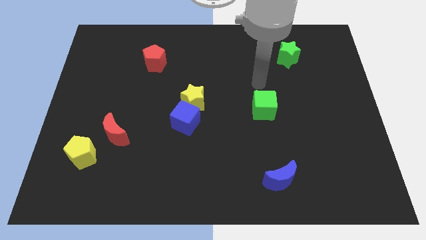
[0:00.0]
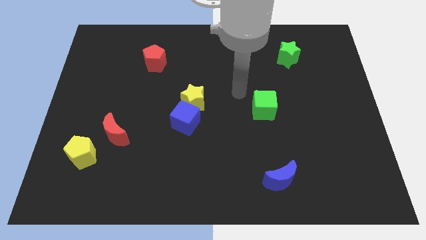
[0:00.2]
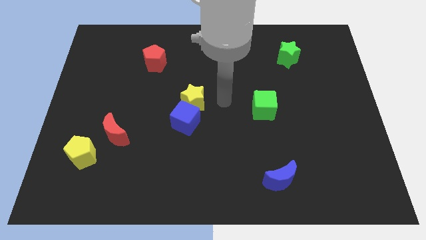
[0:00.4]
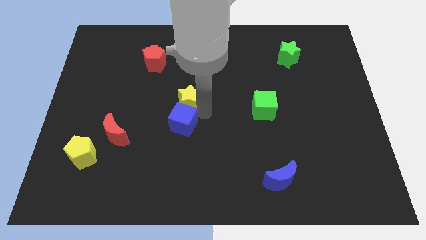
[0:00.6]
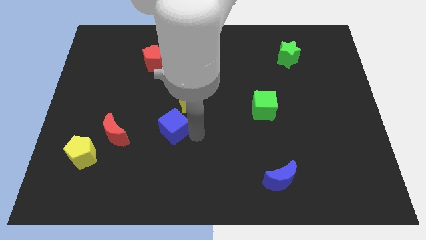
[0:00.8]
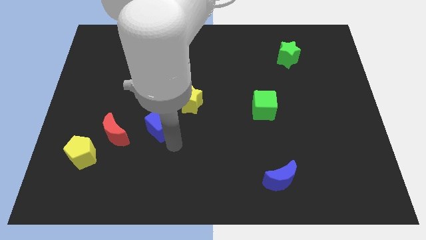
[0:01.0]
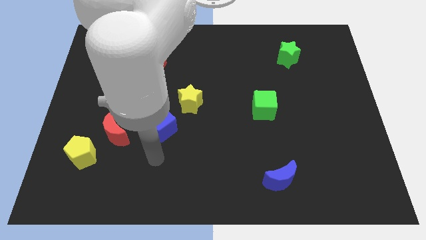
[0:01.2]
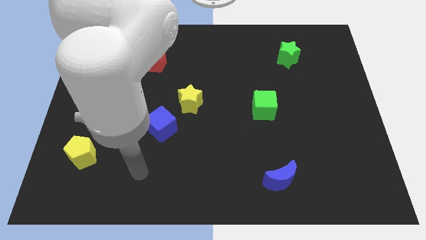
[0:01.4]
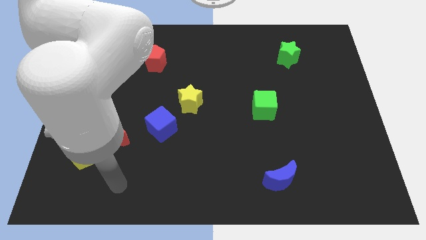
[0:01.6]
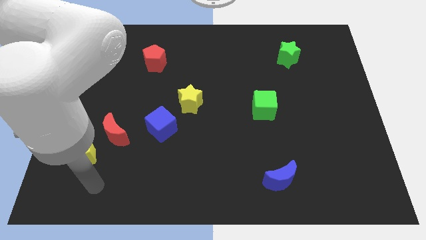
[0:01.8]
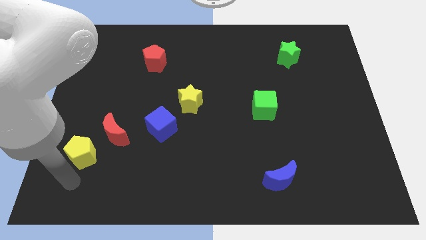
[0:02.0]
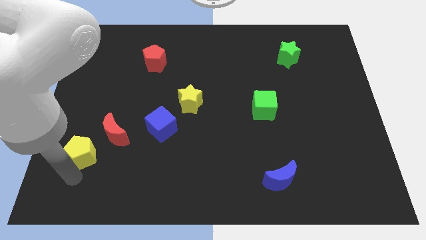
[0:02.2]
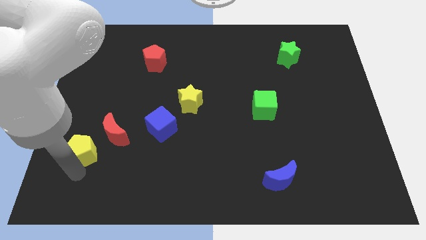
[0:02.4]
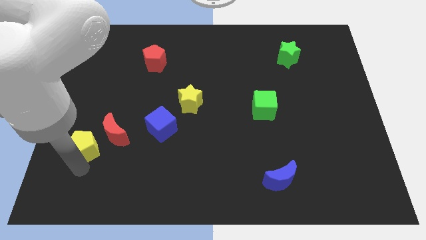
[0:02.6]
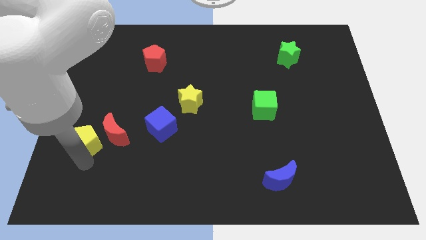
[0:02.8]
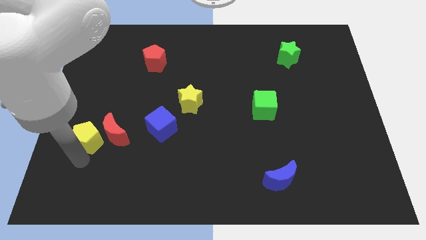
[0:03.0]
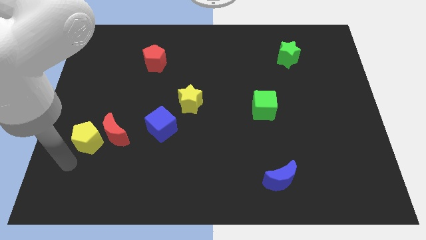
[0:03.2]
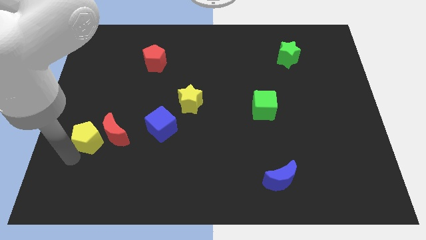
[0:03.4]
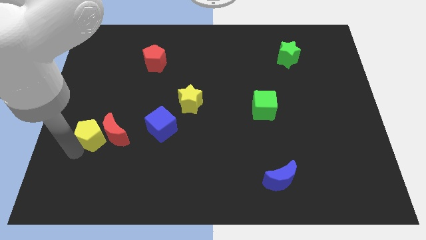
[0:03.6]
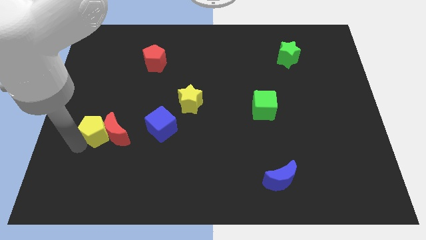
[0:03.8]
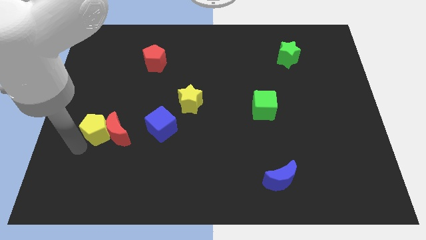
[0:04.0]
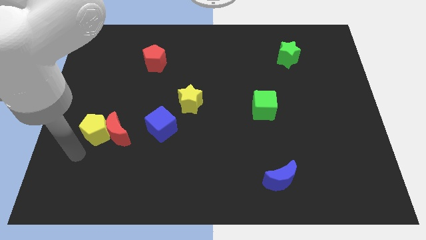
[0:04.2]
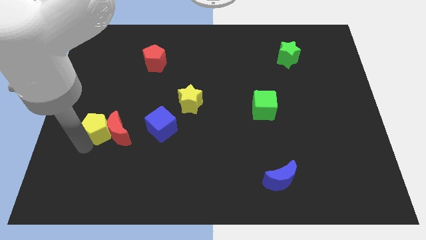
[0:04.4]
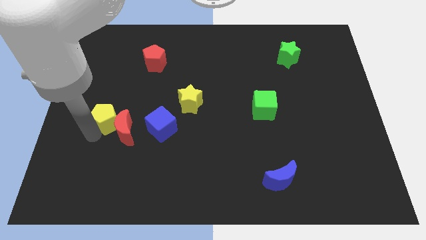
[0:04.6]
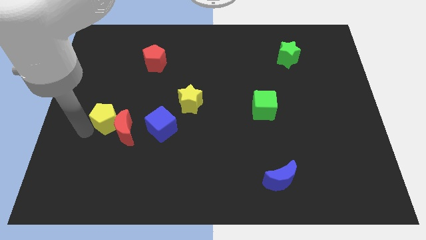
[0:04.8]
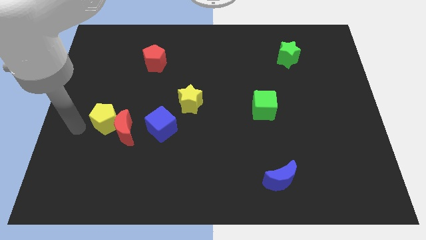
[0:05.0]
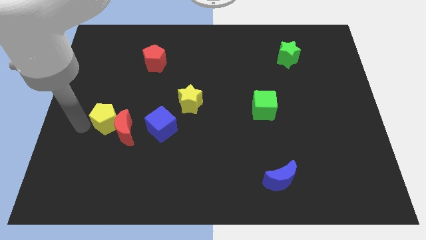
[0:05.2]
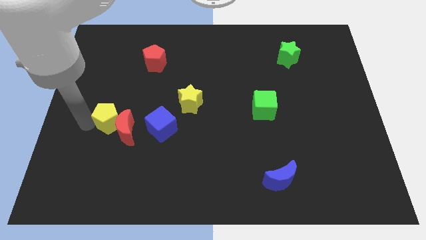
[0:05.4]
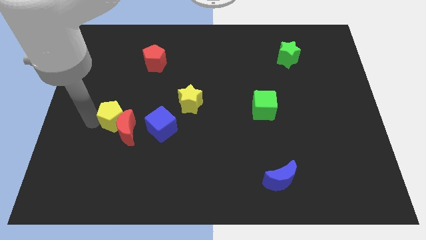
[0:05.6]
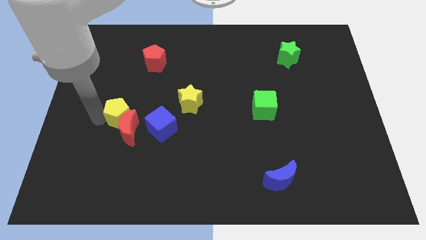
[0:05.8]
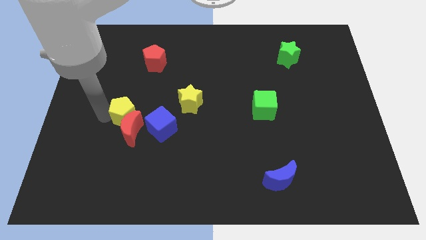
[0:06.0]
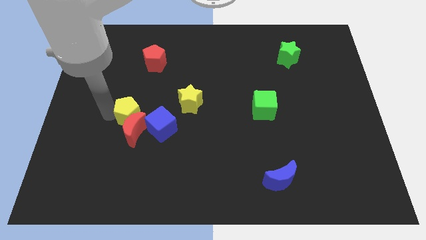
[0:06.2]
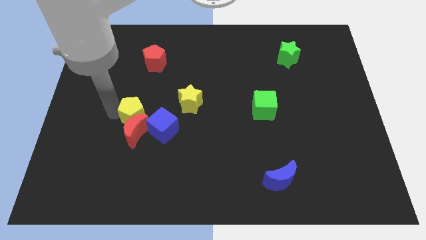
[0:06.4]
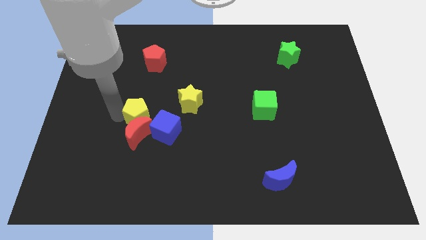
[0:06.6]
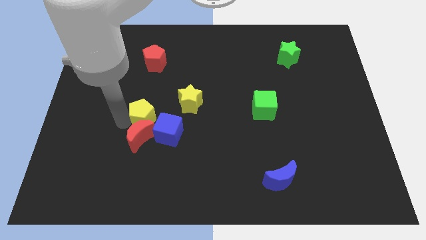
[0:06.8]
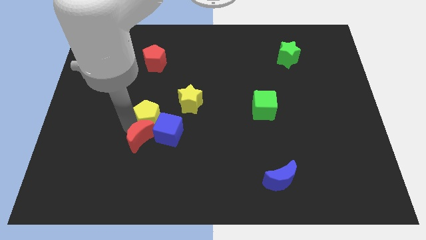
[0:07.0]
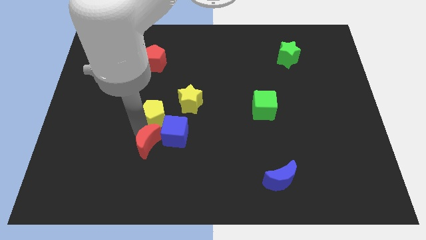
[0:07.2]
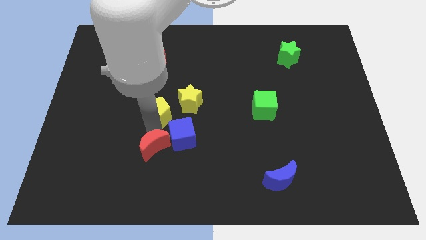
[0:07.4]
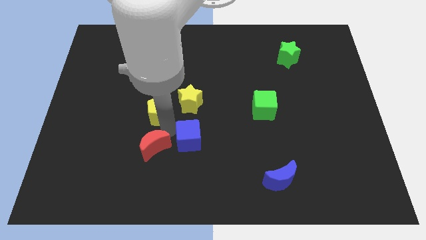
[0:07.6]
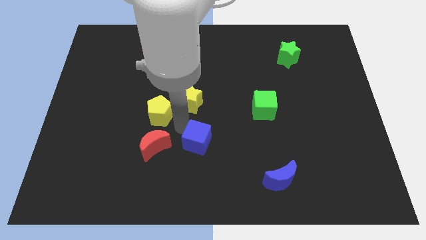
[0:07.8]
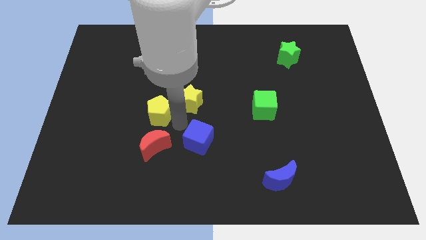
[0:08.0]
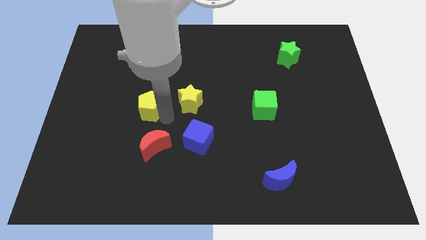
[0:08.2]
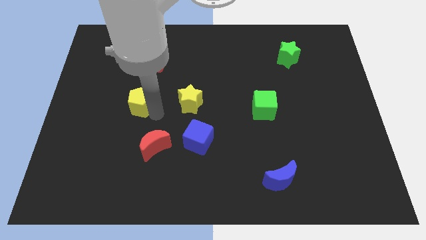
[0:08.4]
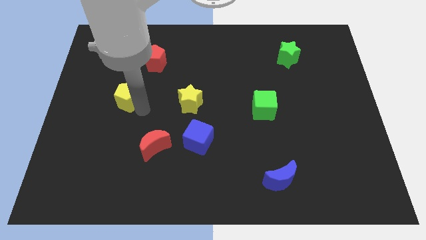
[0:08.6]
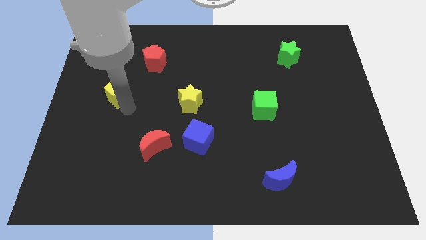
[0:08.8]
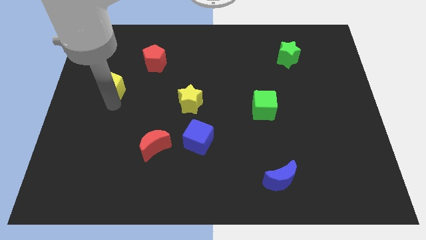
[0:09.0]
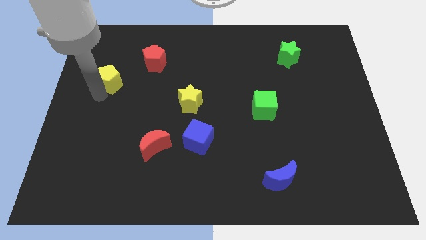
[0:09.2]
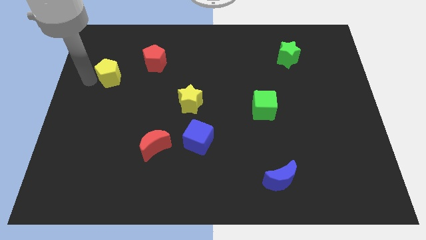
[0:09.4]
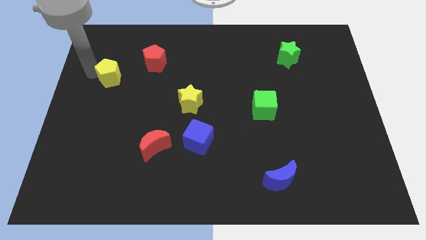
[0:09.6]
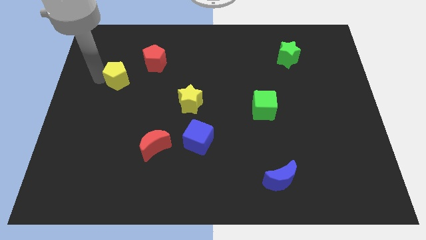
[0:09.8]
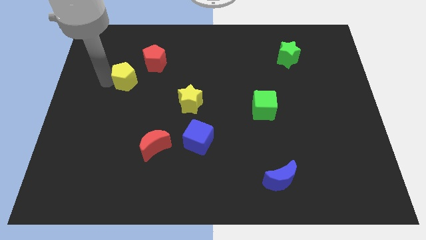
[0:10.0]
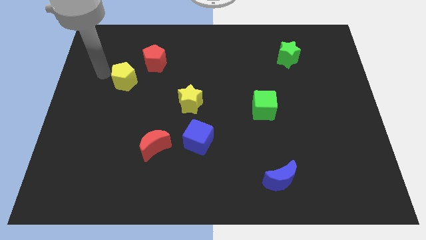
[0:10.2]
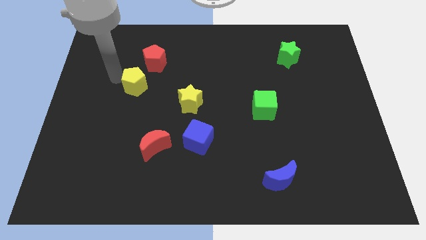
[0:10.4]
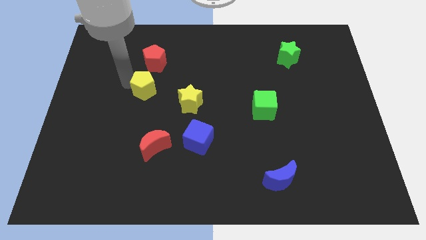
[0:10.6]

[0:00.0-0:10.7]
slide the yellow pentagon up and right diagonally

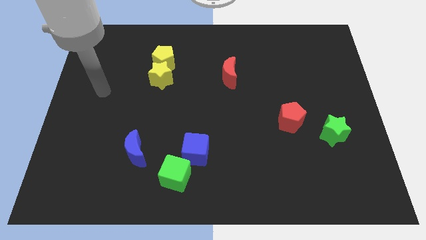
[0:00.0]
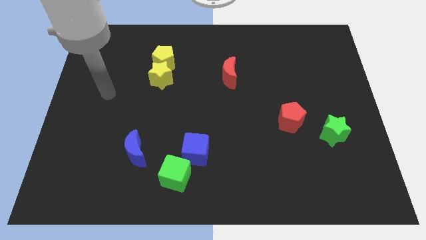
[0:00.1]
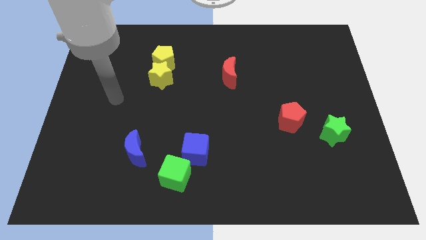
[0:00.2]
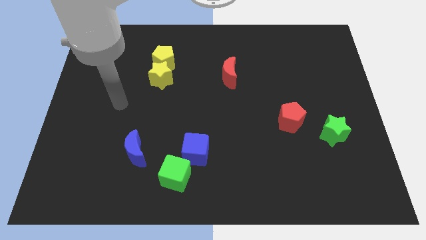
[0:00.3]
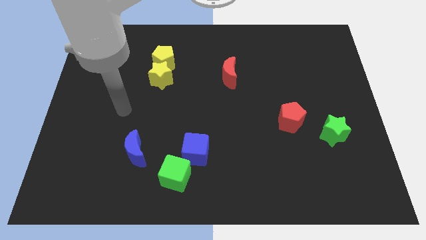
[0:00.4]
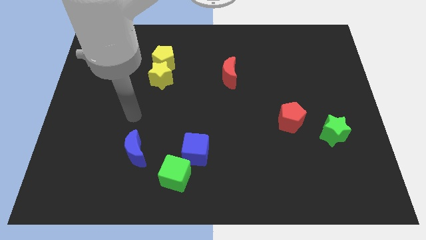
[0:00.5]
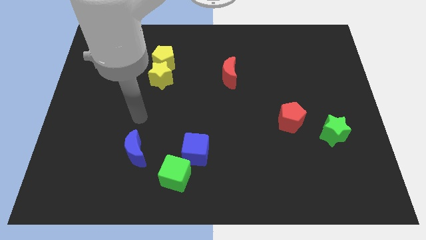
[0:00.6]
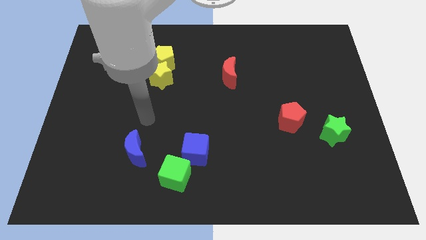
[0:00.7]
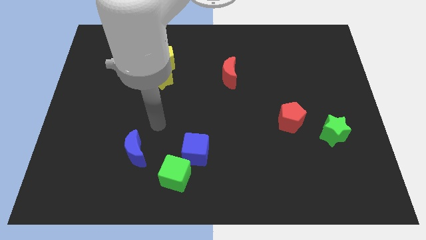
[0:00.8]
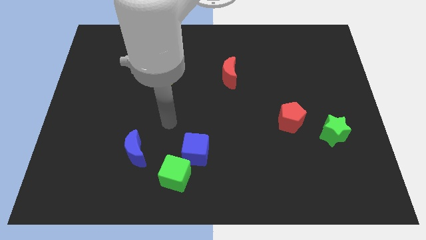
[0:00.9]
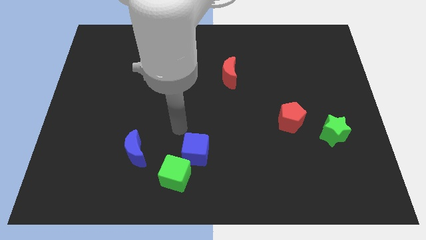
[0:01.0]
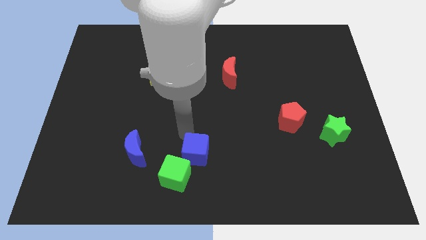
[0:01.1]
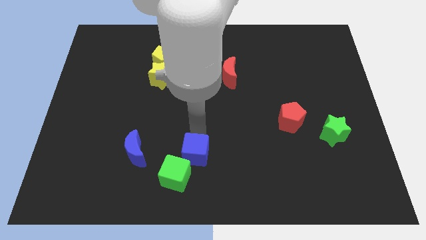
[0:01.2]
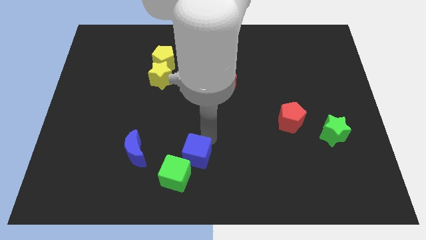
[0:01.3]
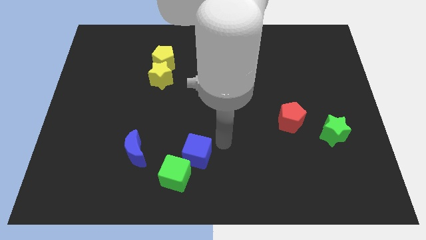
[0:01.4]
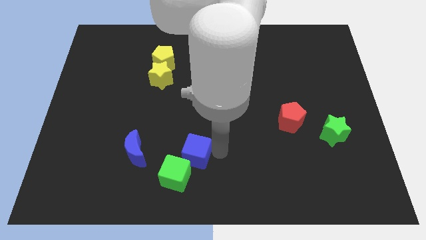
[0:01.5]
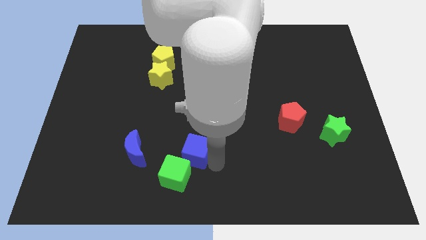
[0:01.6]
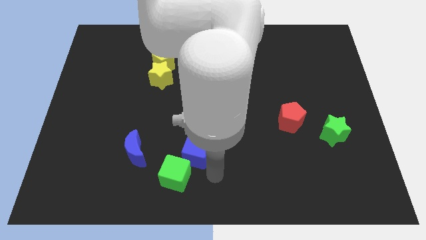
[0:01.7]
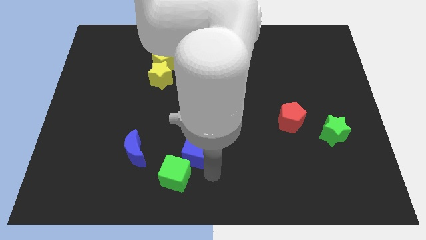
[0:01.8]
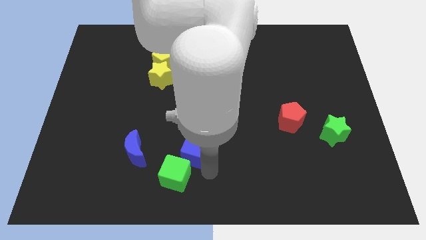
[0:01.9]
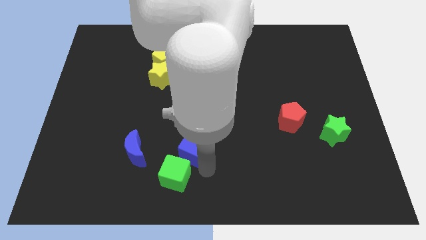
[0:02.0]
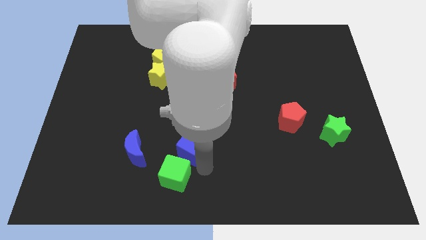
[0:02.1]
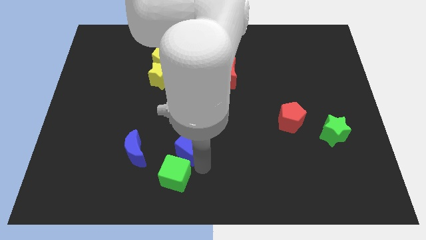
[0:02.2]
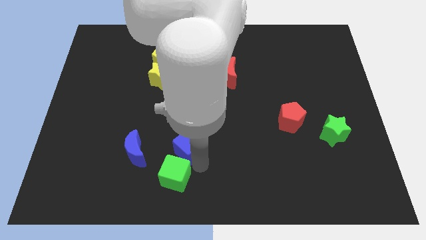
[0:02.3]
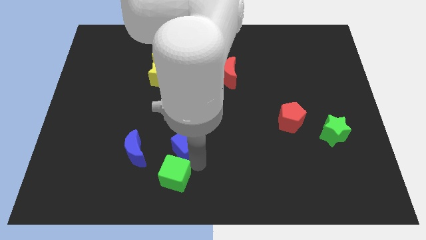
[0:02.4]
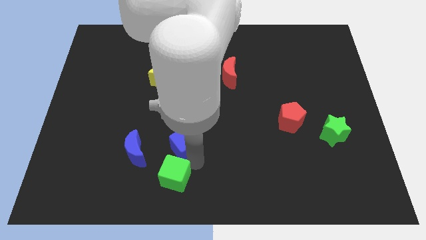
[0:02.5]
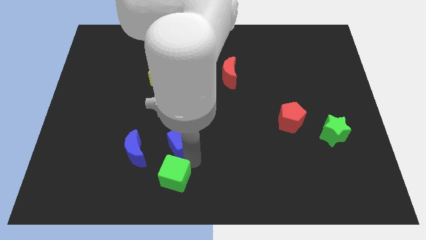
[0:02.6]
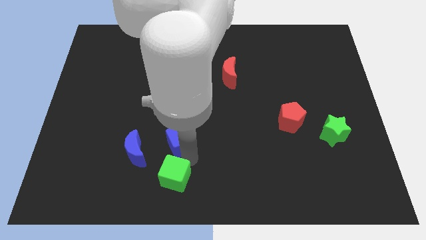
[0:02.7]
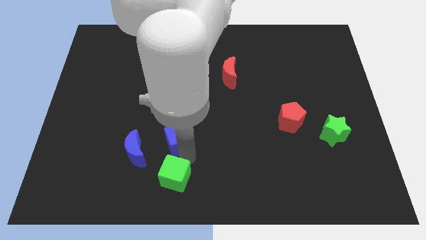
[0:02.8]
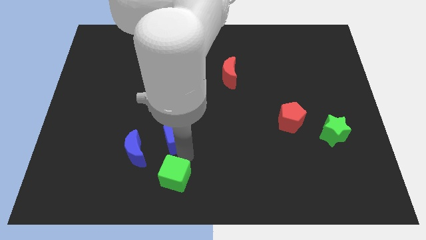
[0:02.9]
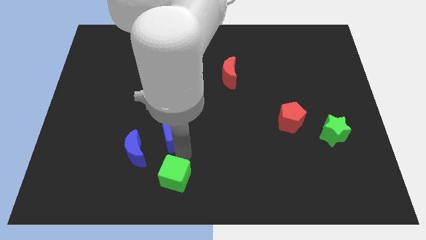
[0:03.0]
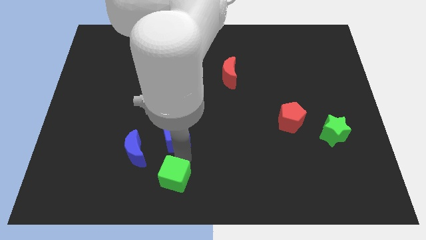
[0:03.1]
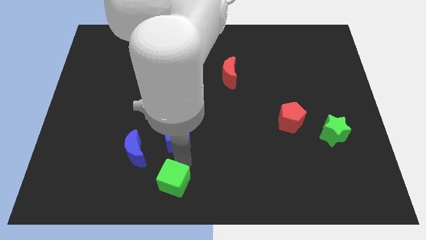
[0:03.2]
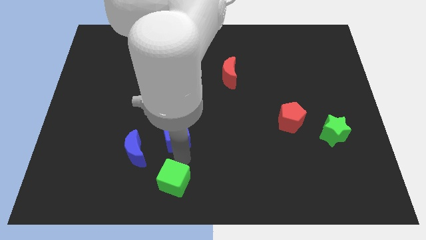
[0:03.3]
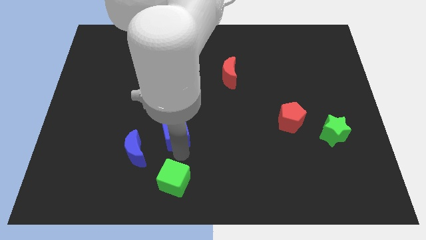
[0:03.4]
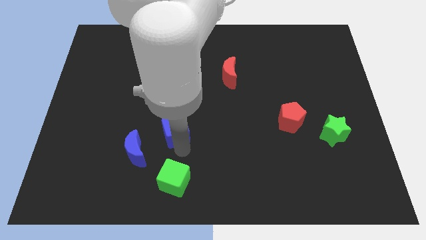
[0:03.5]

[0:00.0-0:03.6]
push the blue cube upwards and left diagonally a bit
